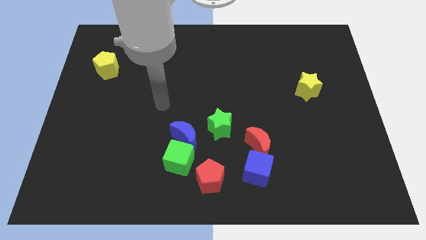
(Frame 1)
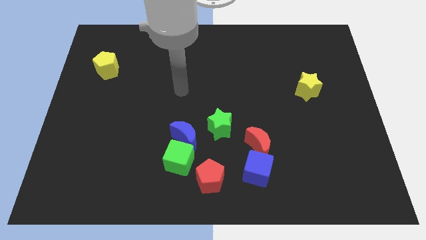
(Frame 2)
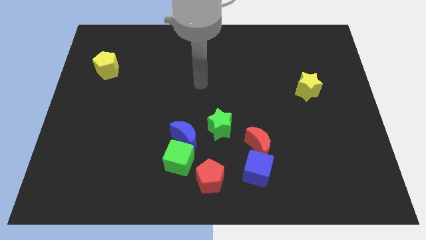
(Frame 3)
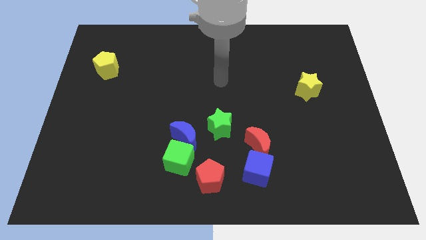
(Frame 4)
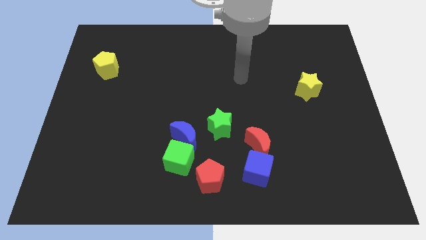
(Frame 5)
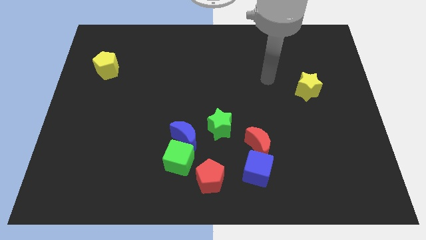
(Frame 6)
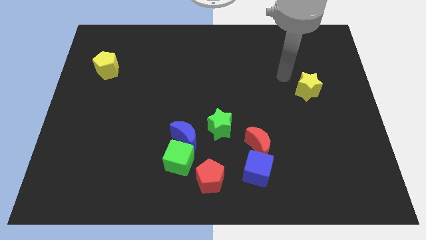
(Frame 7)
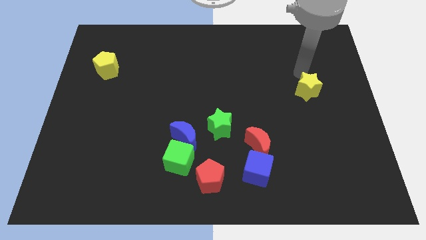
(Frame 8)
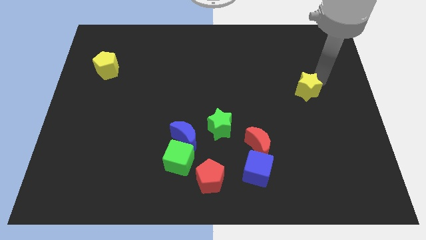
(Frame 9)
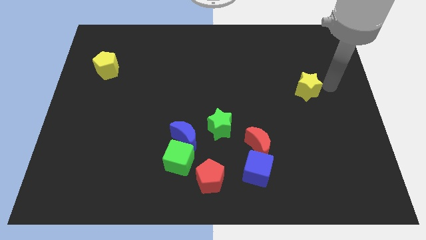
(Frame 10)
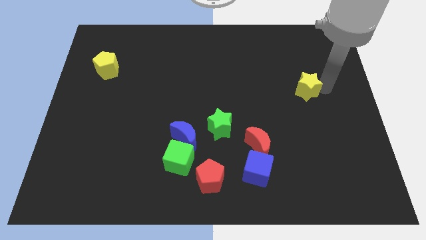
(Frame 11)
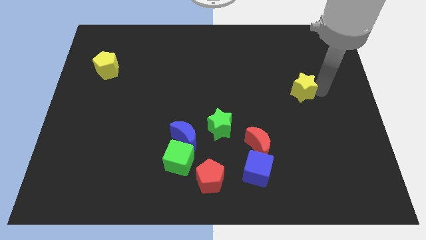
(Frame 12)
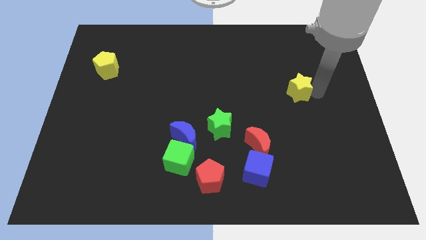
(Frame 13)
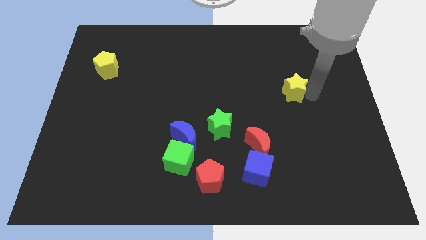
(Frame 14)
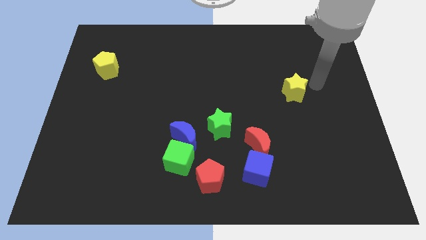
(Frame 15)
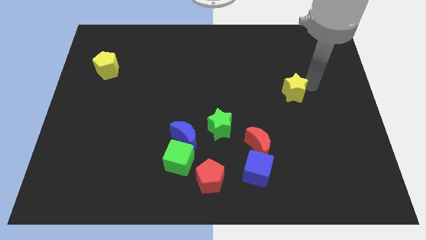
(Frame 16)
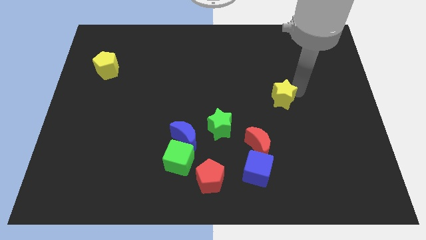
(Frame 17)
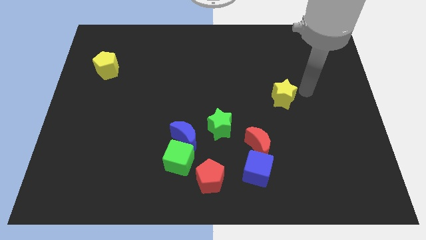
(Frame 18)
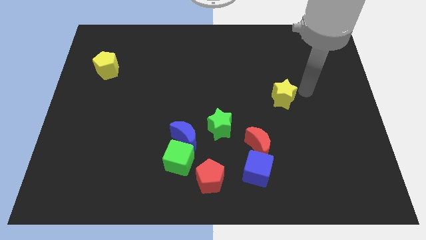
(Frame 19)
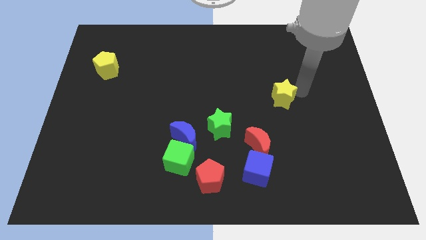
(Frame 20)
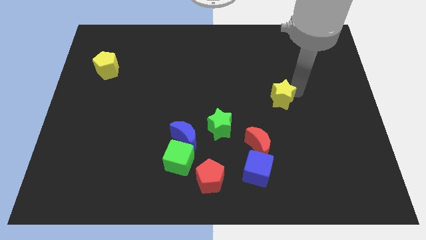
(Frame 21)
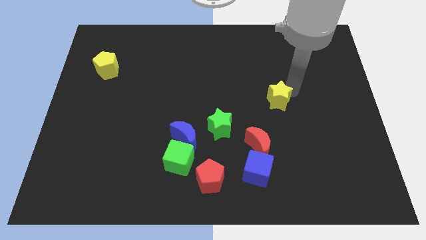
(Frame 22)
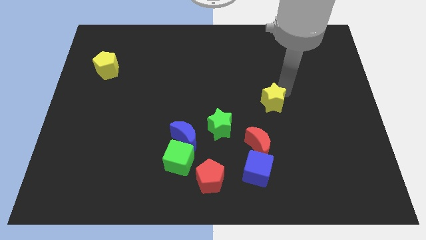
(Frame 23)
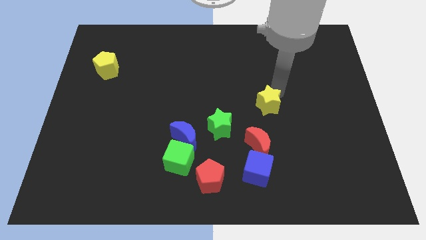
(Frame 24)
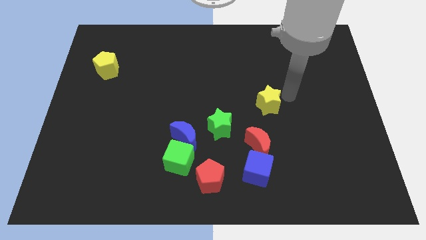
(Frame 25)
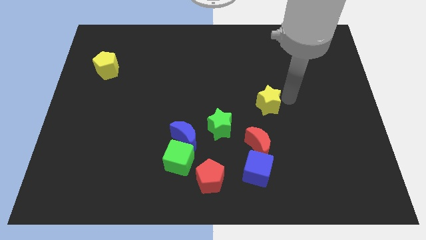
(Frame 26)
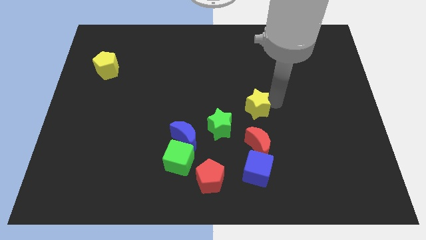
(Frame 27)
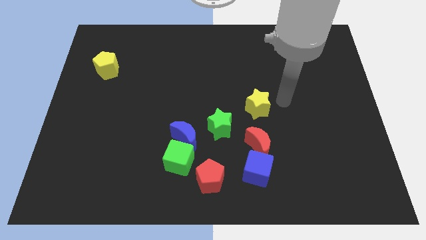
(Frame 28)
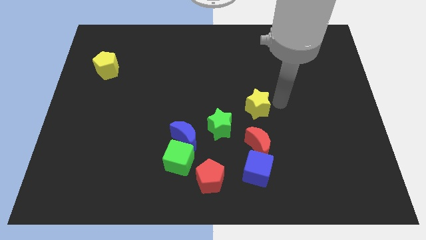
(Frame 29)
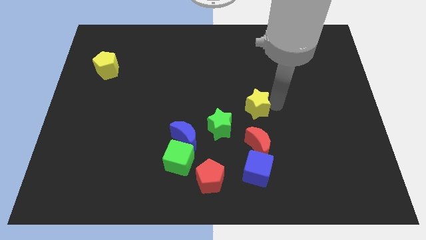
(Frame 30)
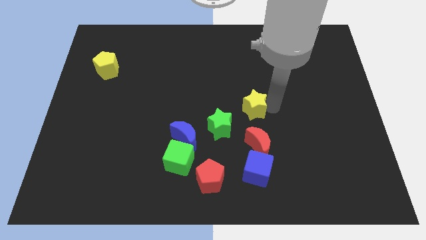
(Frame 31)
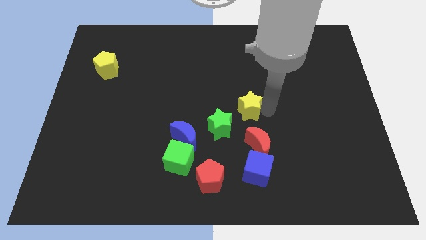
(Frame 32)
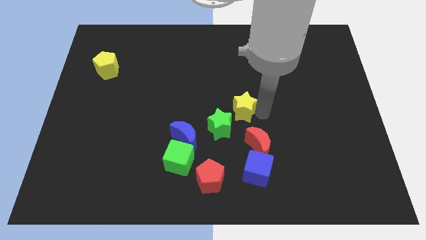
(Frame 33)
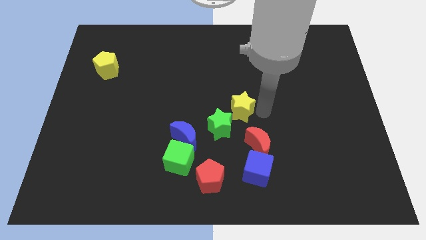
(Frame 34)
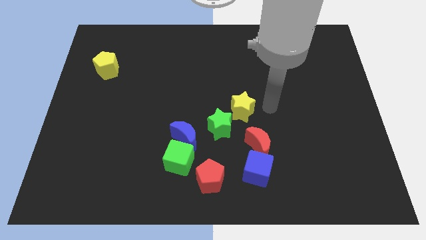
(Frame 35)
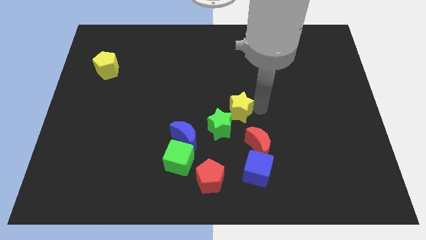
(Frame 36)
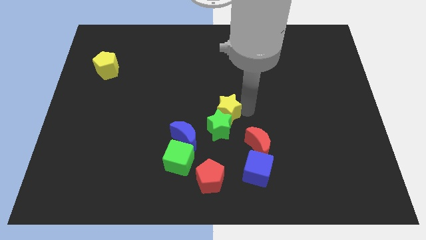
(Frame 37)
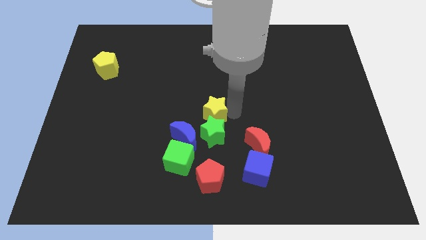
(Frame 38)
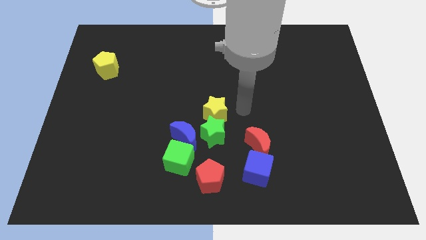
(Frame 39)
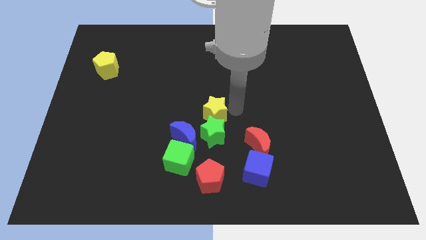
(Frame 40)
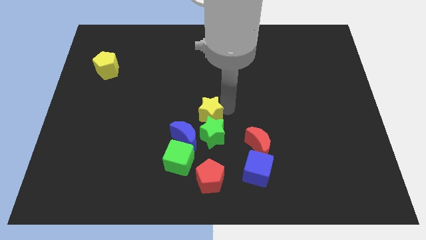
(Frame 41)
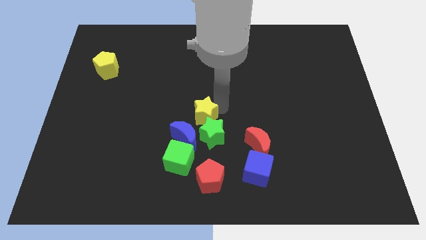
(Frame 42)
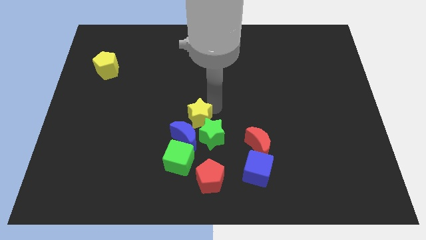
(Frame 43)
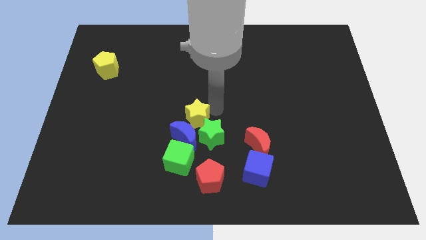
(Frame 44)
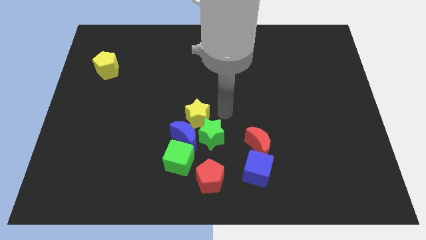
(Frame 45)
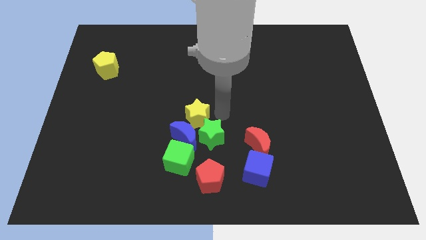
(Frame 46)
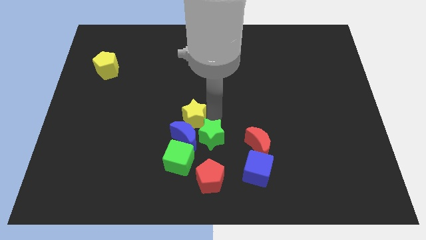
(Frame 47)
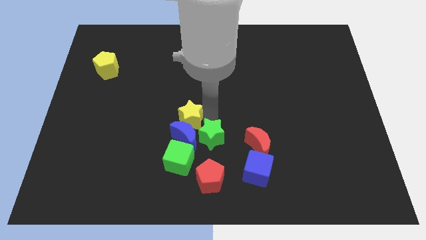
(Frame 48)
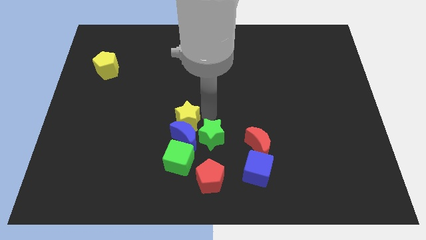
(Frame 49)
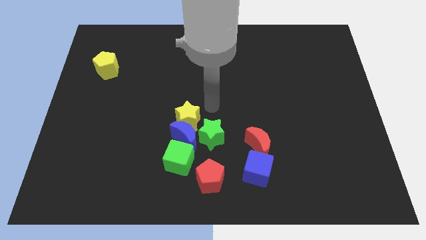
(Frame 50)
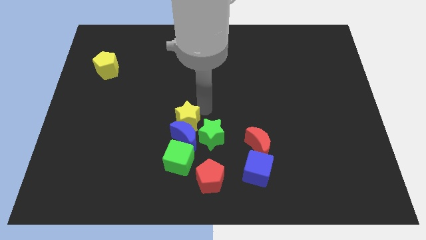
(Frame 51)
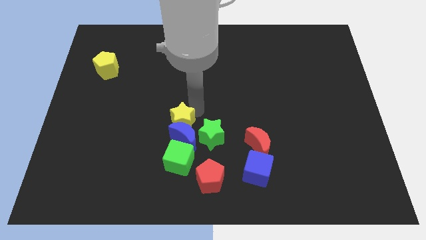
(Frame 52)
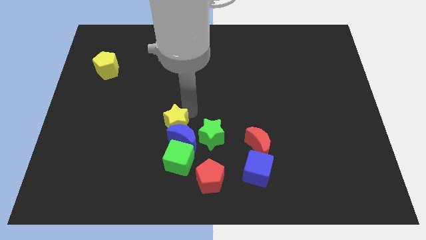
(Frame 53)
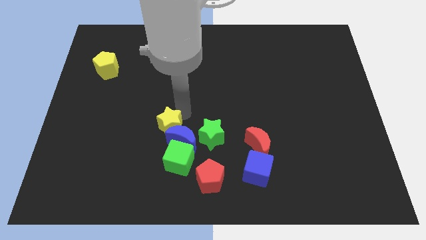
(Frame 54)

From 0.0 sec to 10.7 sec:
slide the yellow star to the top left of the green cube

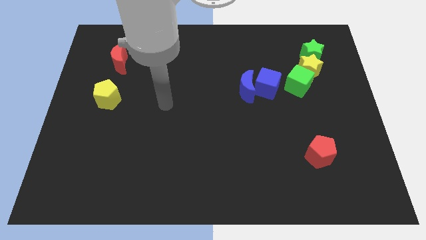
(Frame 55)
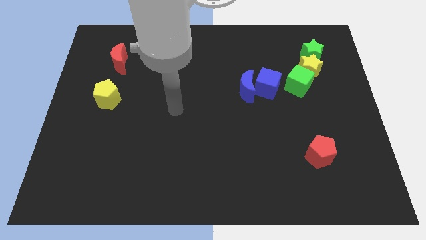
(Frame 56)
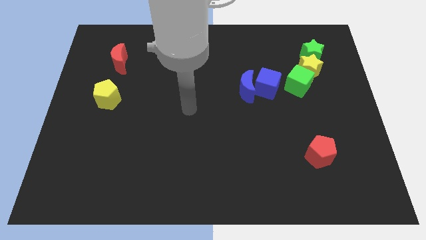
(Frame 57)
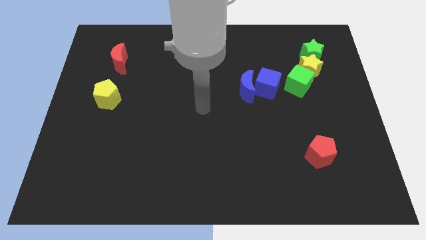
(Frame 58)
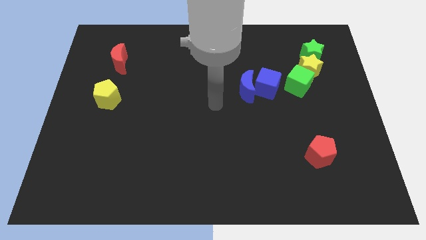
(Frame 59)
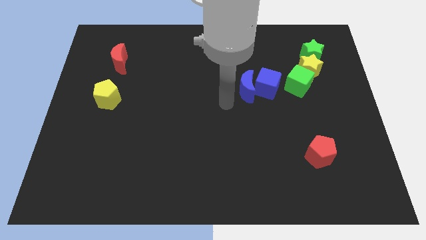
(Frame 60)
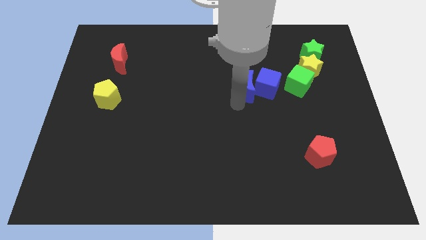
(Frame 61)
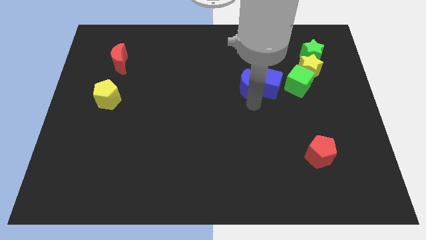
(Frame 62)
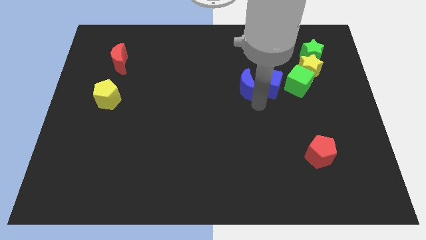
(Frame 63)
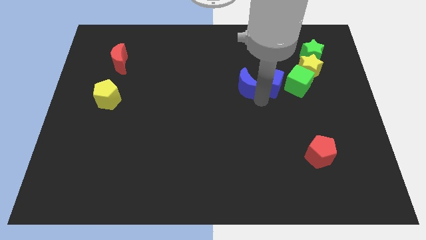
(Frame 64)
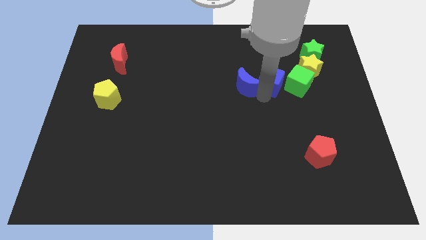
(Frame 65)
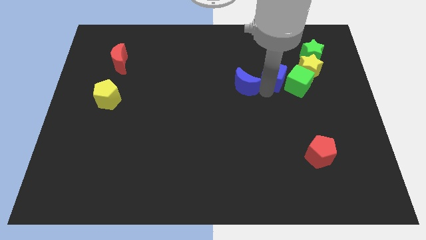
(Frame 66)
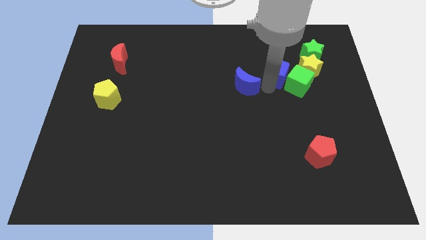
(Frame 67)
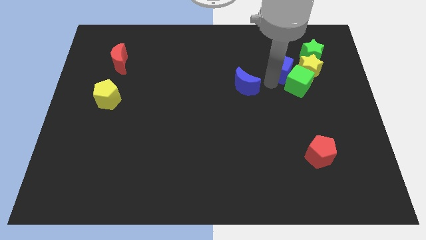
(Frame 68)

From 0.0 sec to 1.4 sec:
move the blue cube to the top left of the yellow star
